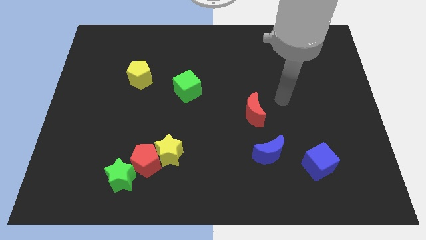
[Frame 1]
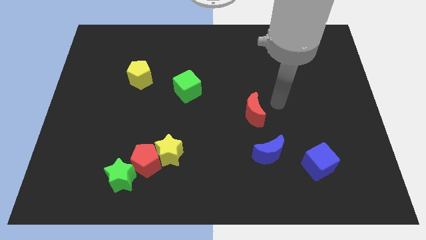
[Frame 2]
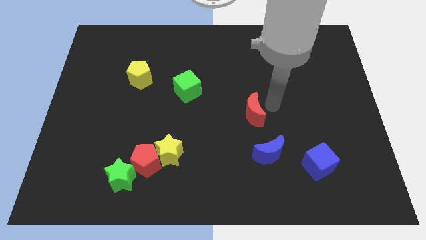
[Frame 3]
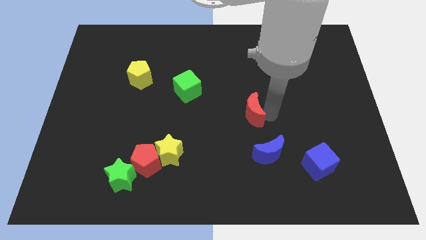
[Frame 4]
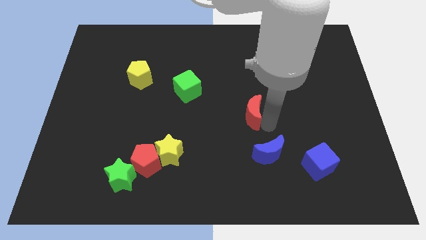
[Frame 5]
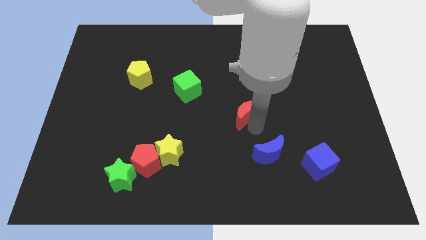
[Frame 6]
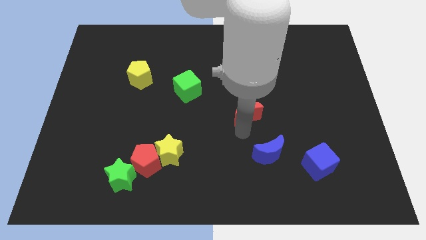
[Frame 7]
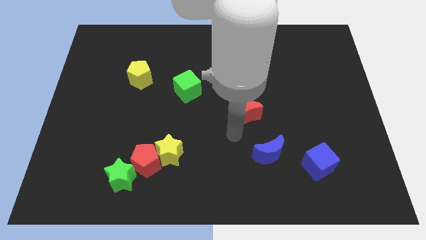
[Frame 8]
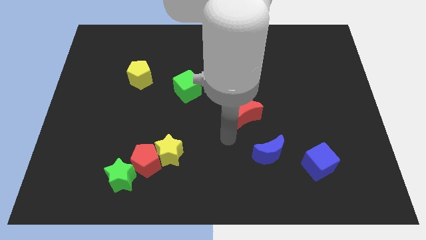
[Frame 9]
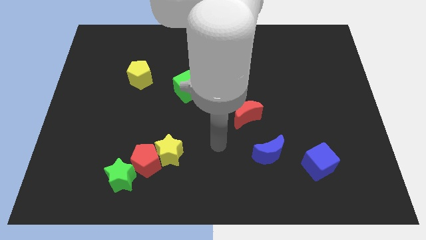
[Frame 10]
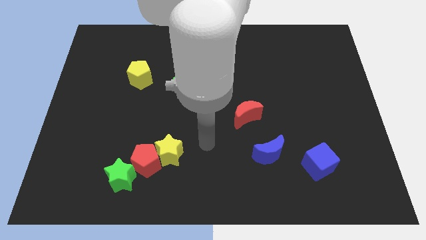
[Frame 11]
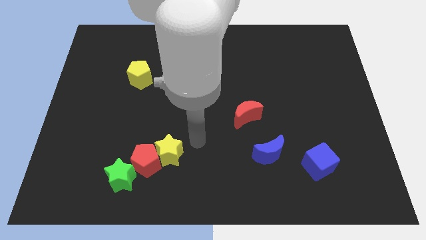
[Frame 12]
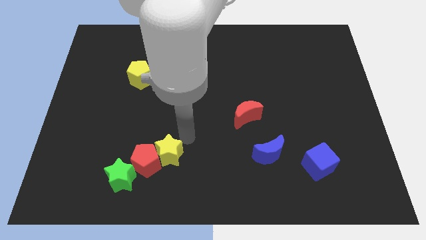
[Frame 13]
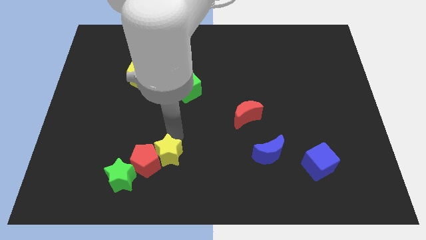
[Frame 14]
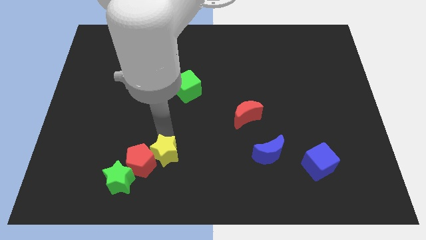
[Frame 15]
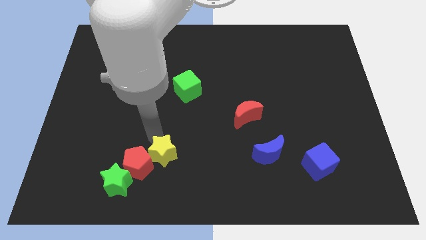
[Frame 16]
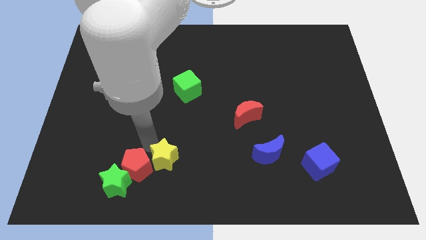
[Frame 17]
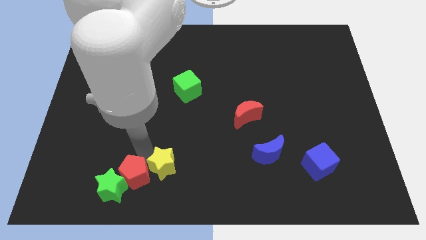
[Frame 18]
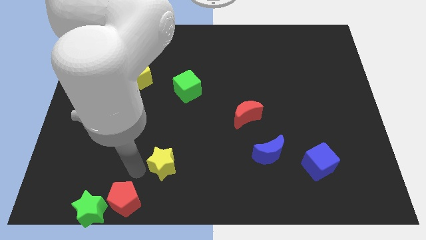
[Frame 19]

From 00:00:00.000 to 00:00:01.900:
move the yellow star away from the red pentagon

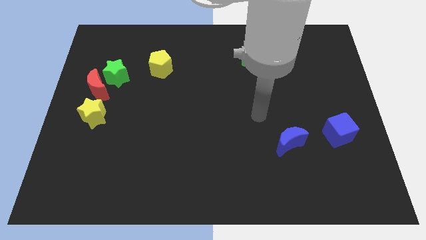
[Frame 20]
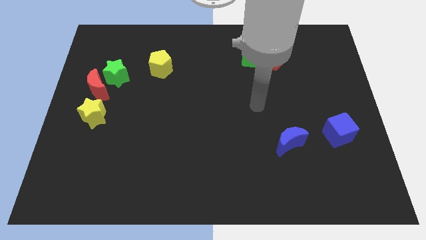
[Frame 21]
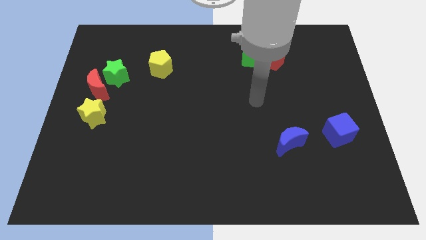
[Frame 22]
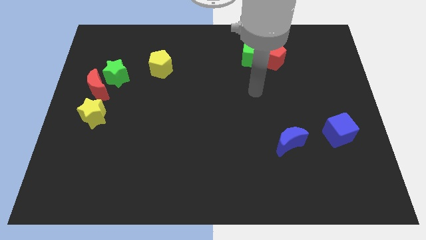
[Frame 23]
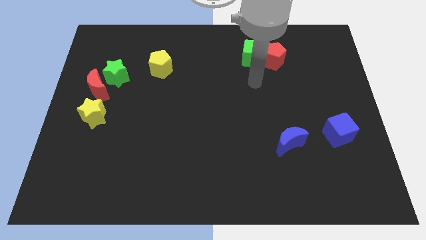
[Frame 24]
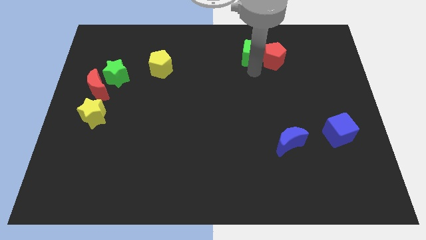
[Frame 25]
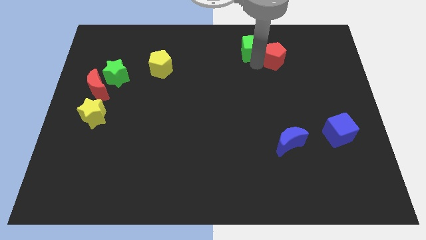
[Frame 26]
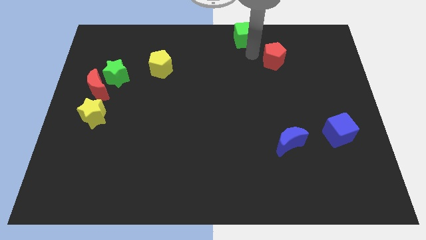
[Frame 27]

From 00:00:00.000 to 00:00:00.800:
pull the red pentagon apart from the green cube

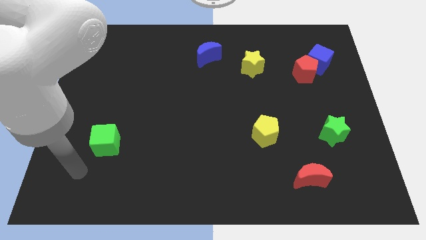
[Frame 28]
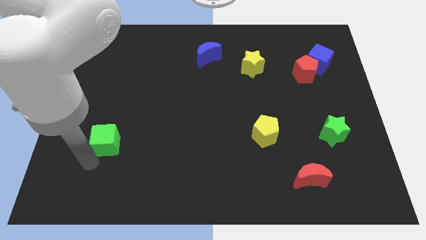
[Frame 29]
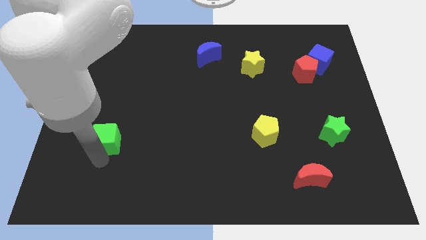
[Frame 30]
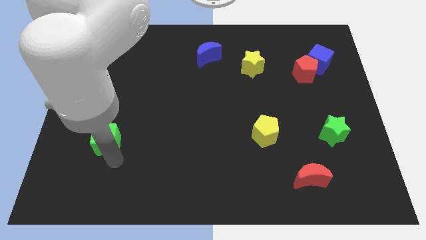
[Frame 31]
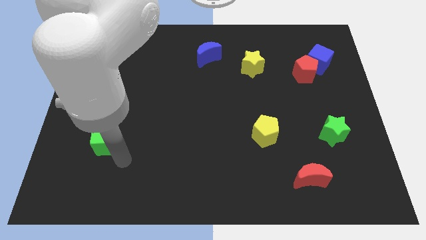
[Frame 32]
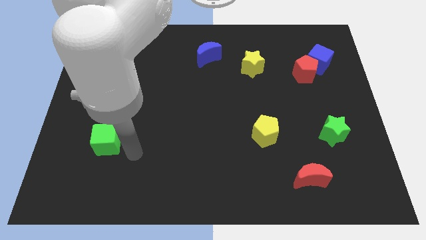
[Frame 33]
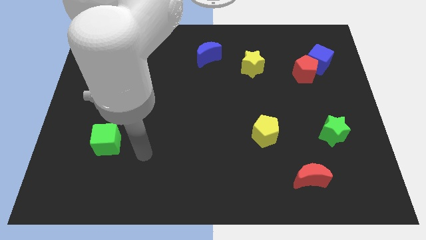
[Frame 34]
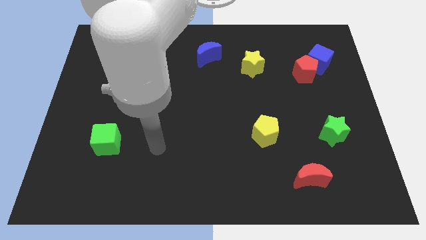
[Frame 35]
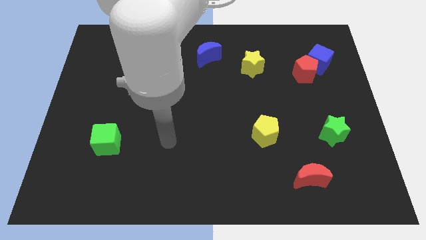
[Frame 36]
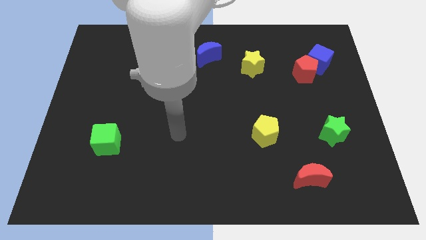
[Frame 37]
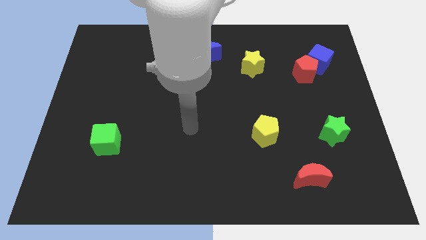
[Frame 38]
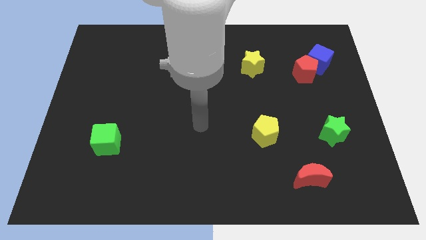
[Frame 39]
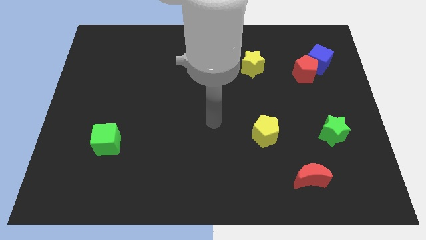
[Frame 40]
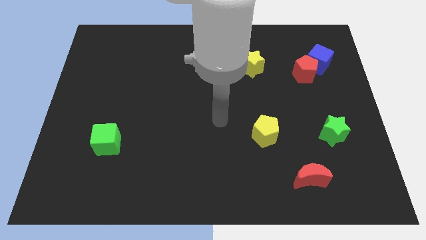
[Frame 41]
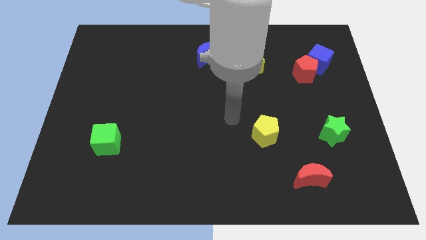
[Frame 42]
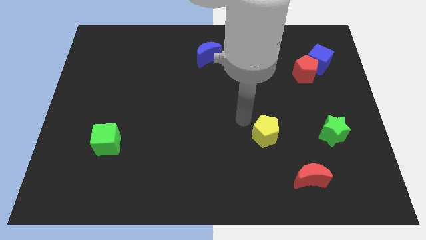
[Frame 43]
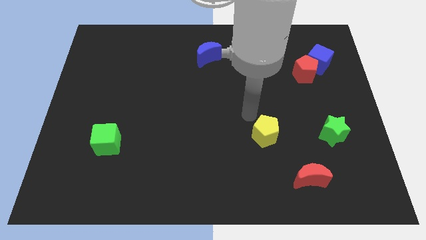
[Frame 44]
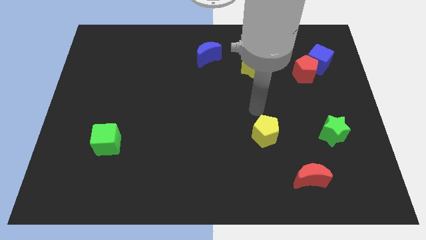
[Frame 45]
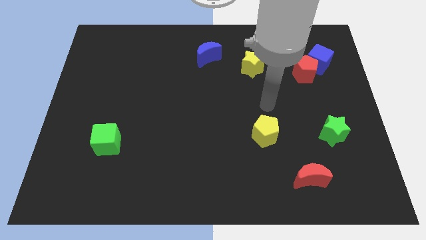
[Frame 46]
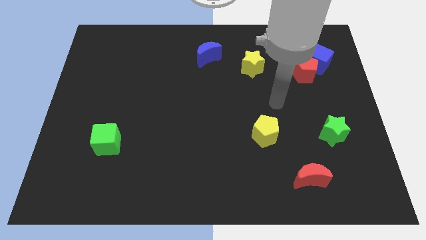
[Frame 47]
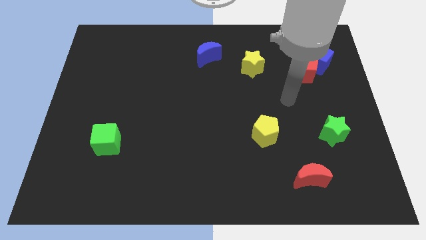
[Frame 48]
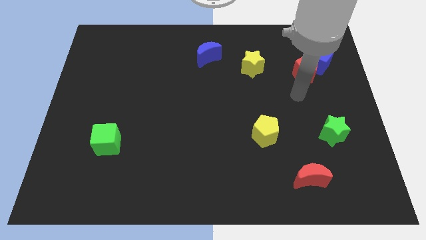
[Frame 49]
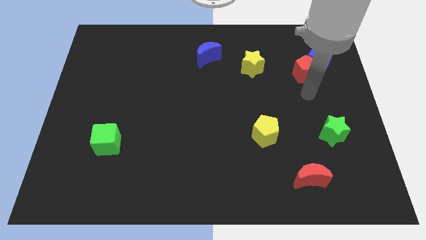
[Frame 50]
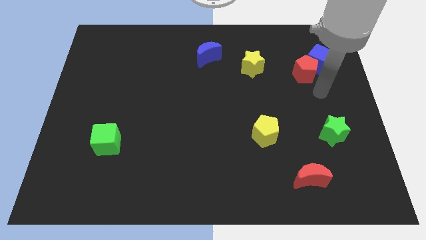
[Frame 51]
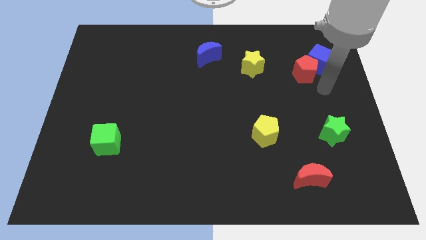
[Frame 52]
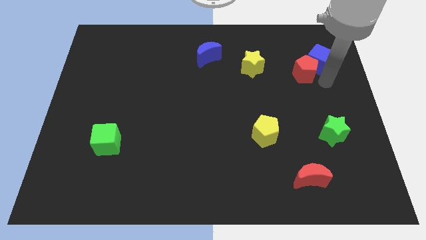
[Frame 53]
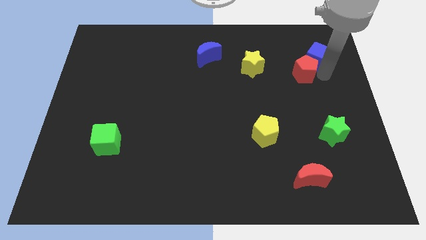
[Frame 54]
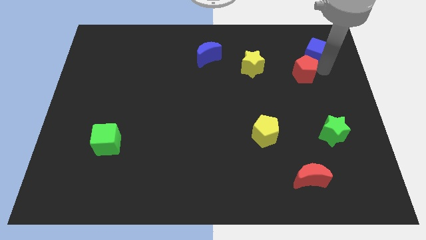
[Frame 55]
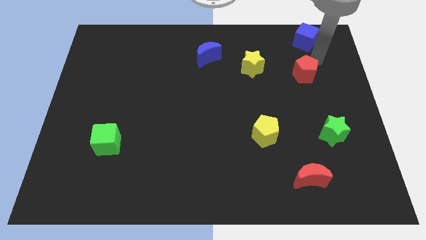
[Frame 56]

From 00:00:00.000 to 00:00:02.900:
move the red pentagon away from the blue cube

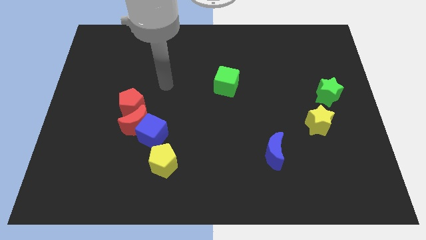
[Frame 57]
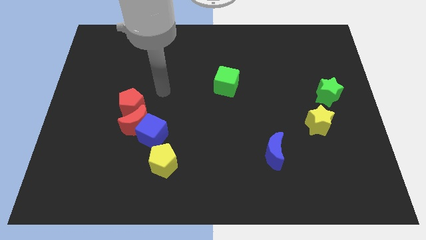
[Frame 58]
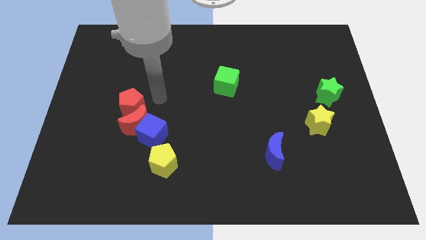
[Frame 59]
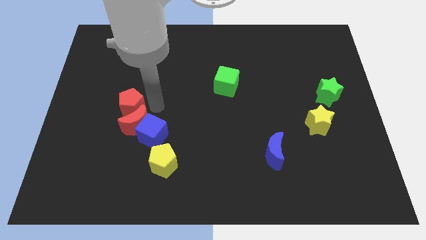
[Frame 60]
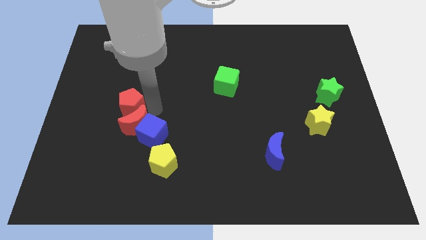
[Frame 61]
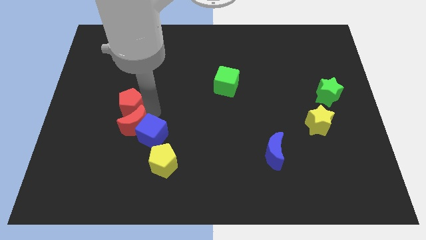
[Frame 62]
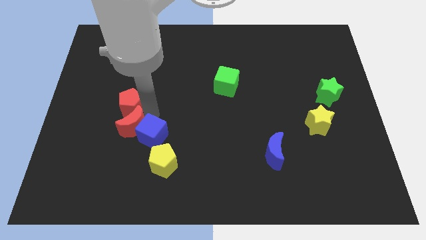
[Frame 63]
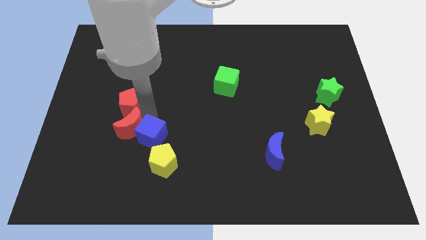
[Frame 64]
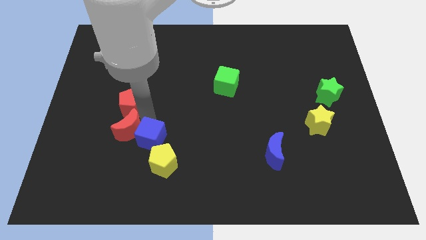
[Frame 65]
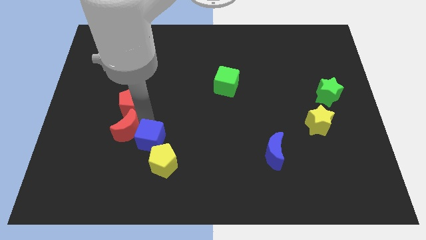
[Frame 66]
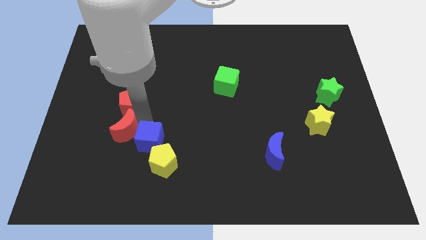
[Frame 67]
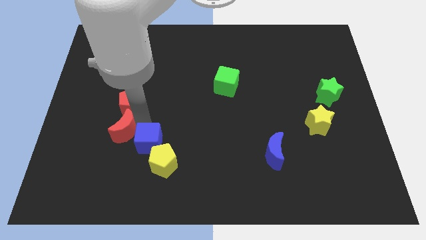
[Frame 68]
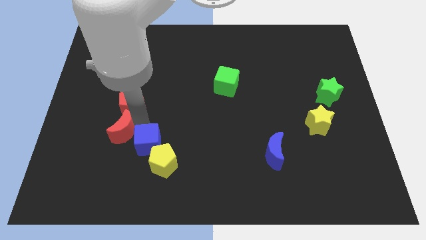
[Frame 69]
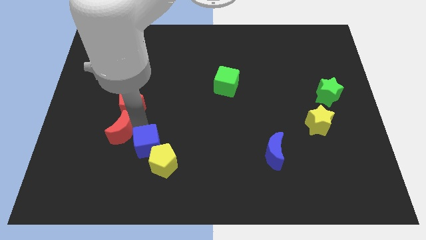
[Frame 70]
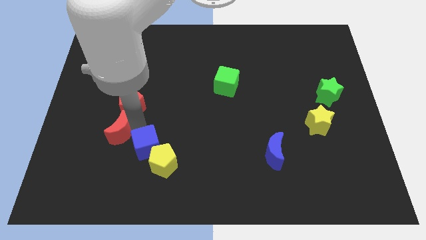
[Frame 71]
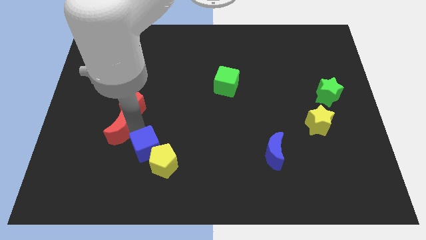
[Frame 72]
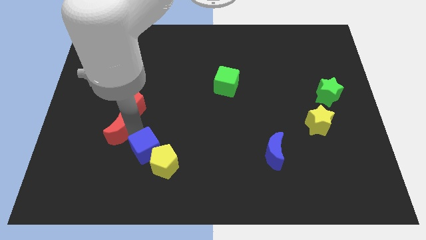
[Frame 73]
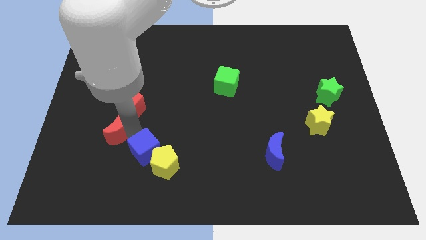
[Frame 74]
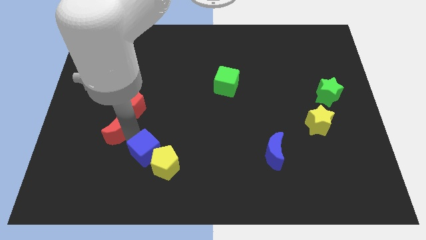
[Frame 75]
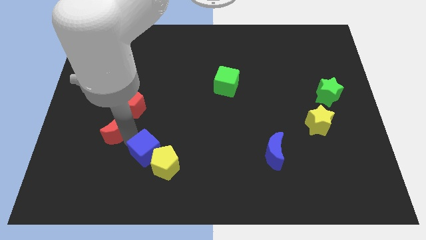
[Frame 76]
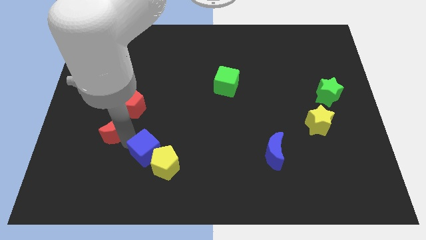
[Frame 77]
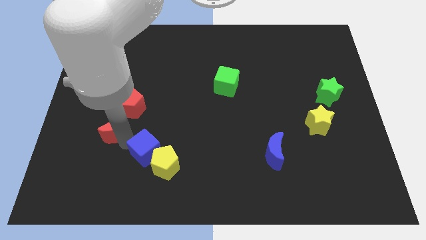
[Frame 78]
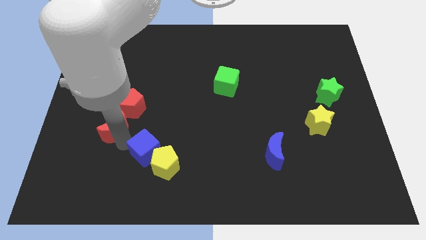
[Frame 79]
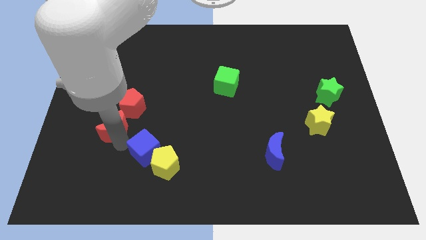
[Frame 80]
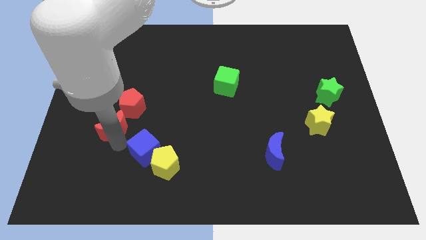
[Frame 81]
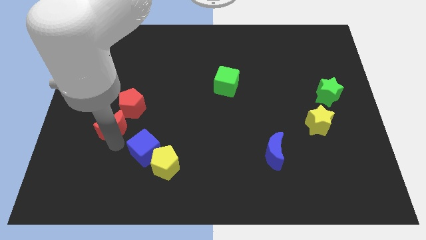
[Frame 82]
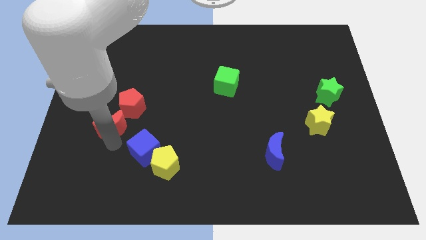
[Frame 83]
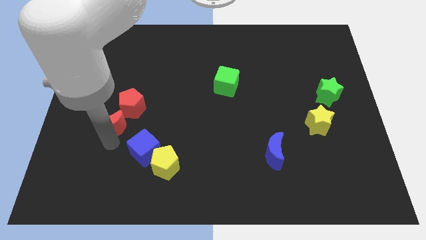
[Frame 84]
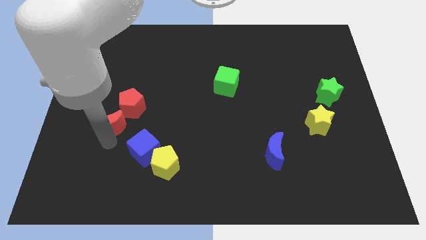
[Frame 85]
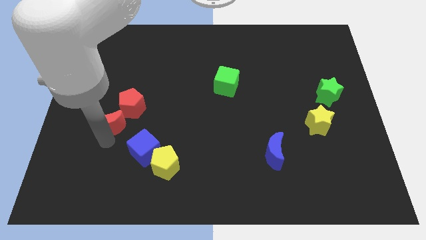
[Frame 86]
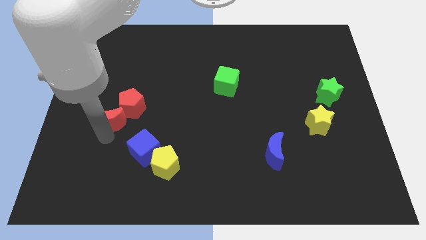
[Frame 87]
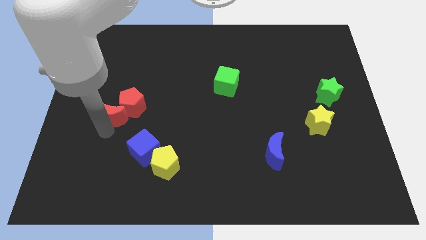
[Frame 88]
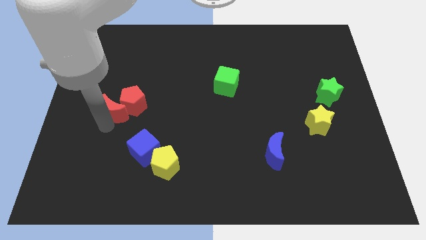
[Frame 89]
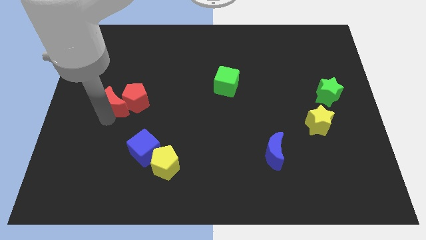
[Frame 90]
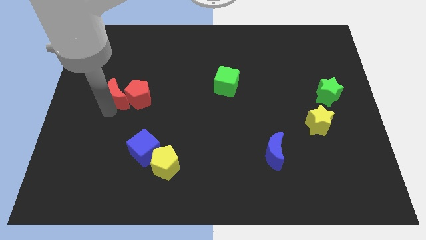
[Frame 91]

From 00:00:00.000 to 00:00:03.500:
separate the red moon from the blue cube and red pentagon
